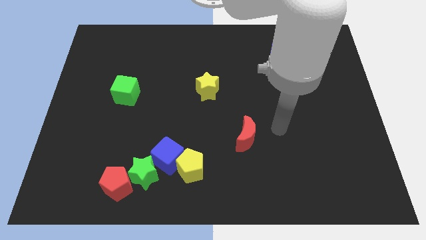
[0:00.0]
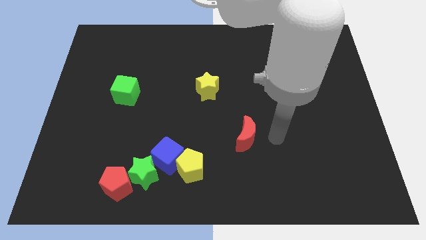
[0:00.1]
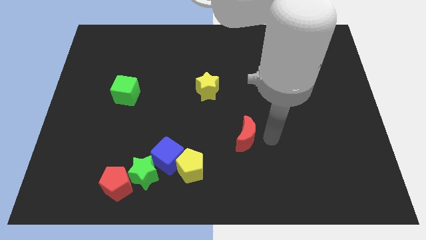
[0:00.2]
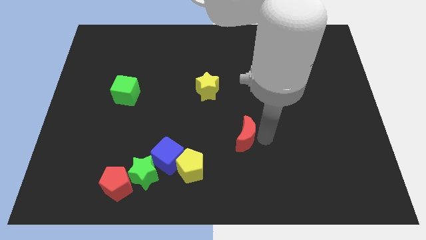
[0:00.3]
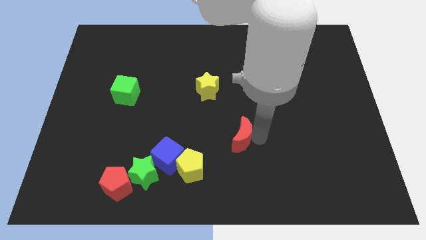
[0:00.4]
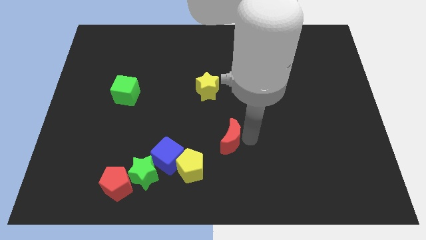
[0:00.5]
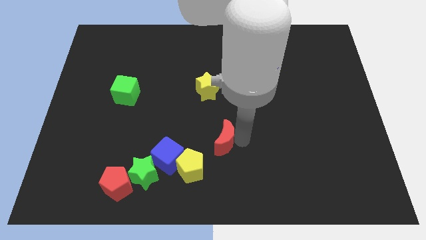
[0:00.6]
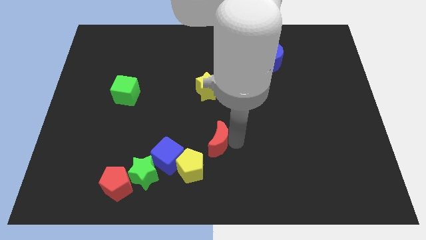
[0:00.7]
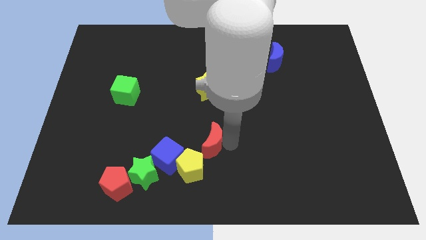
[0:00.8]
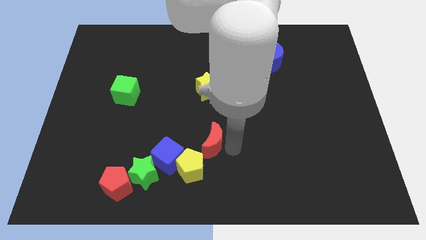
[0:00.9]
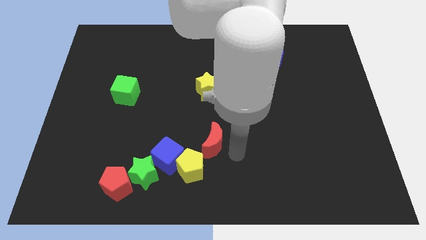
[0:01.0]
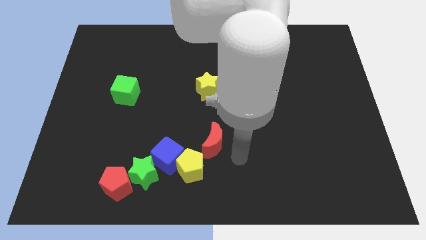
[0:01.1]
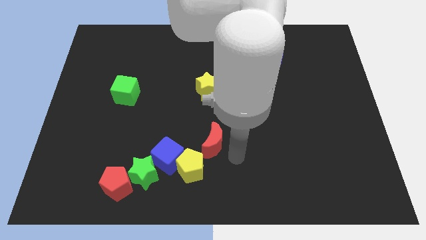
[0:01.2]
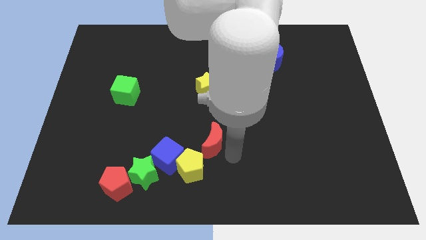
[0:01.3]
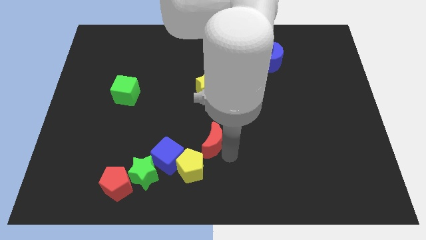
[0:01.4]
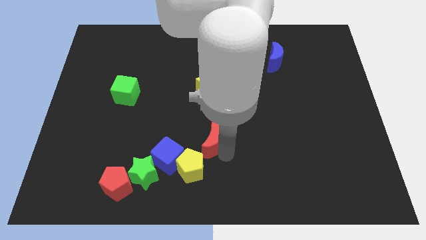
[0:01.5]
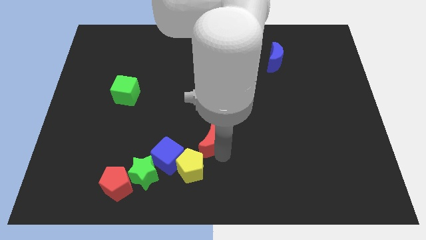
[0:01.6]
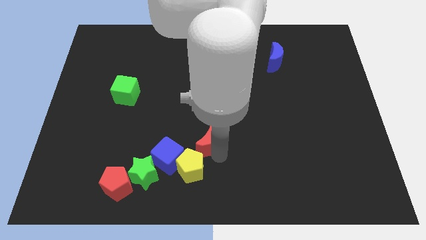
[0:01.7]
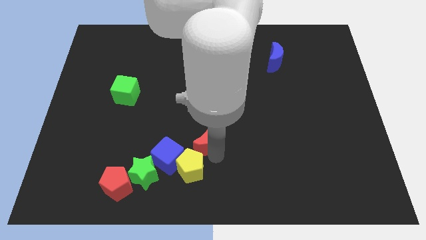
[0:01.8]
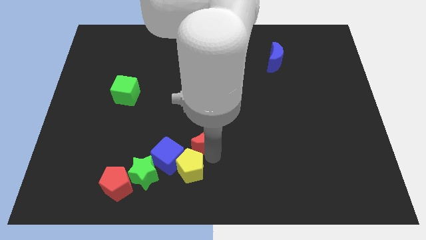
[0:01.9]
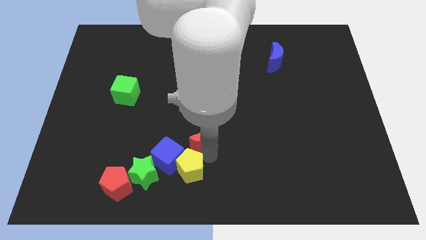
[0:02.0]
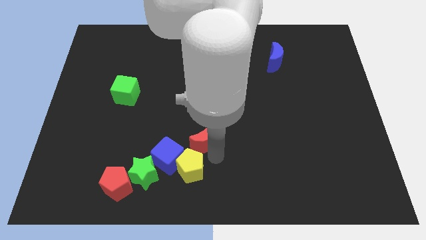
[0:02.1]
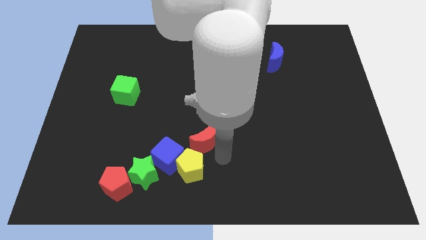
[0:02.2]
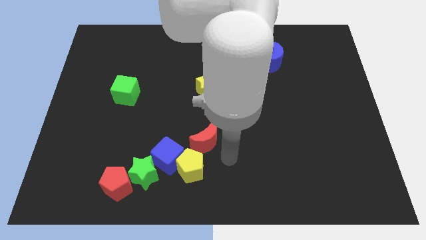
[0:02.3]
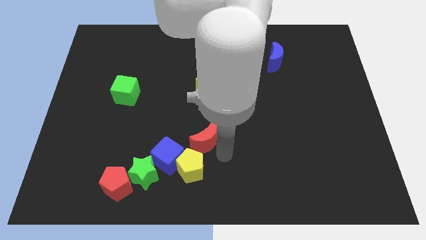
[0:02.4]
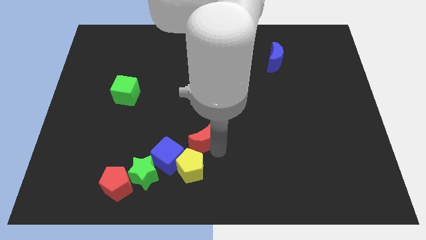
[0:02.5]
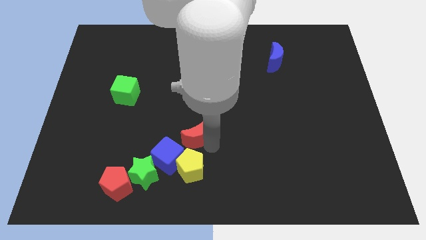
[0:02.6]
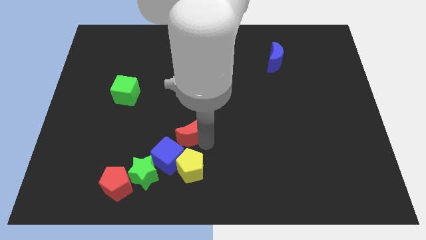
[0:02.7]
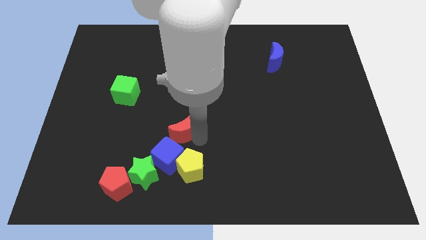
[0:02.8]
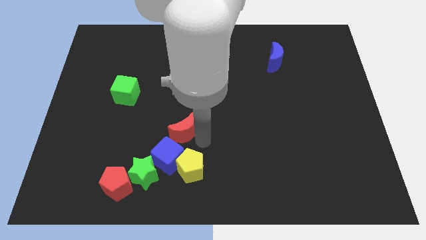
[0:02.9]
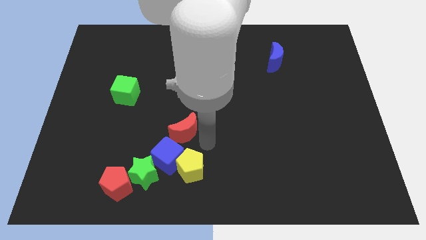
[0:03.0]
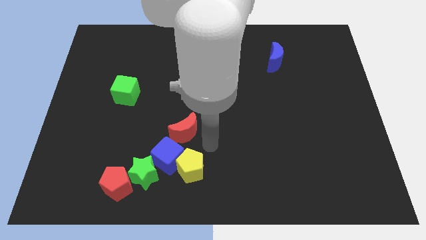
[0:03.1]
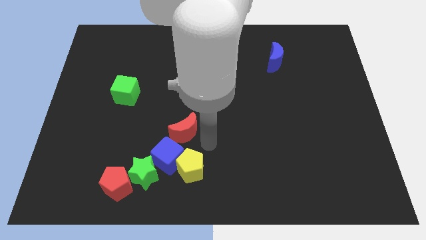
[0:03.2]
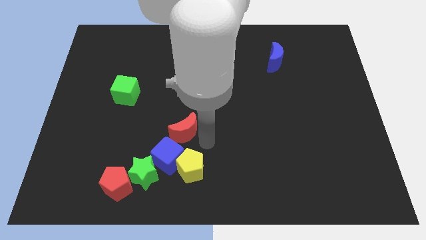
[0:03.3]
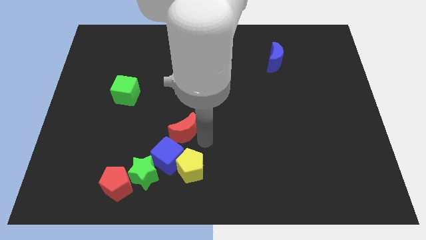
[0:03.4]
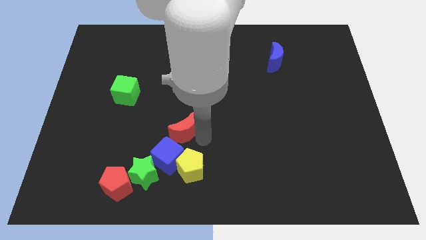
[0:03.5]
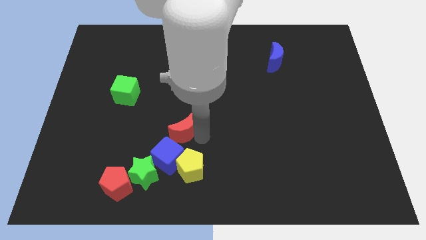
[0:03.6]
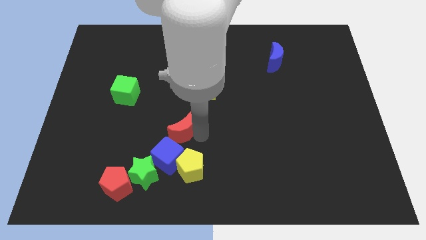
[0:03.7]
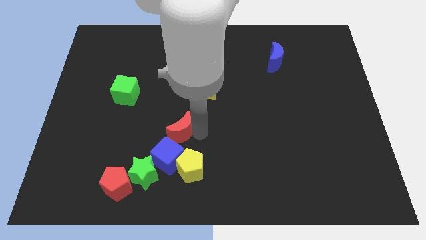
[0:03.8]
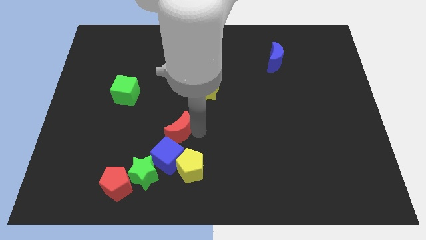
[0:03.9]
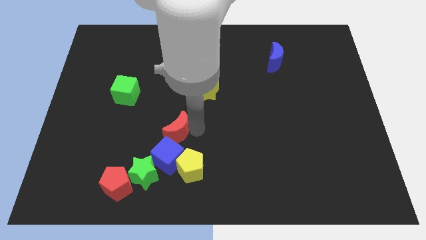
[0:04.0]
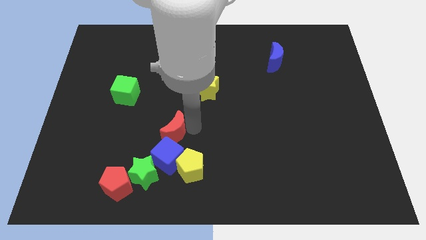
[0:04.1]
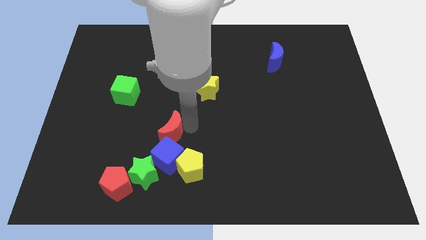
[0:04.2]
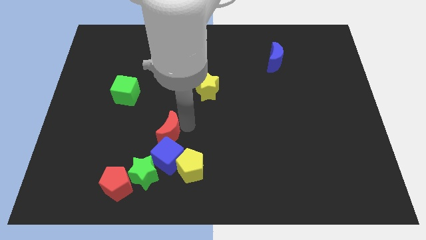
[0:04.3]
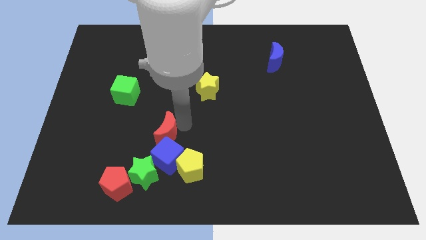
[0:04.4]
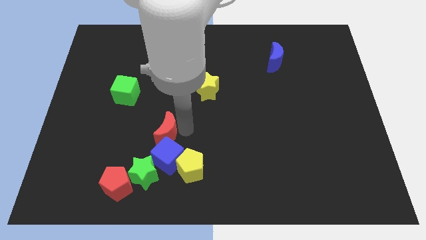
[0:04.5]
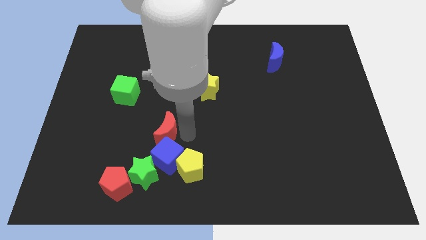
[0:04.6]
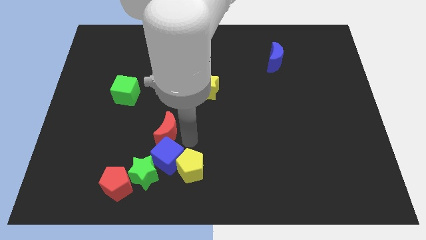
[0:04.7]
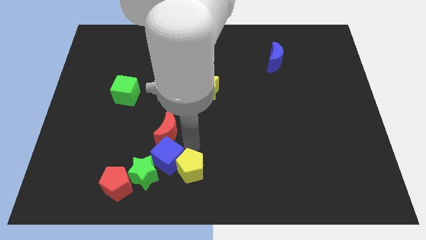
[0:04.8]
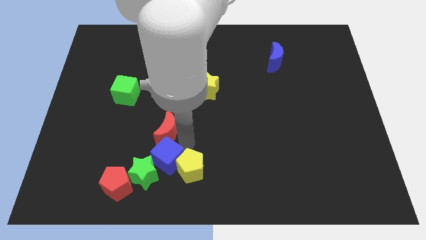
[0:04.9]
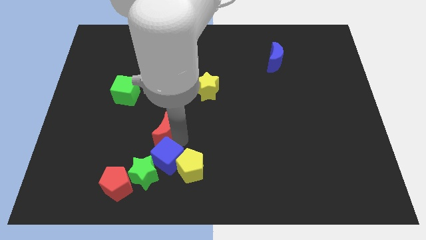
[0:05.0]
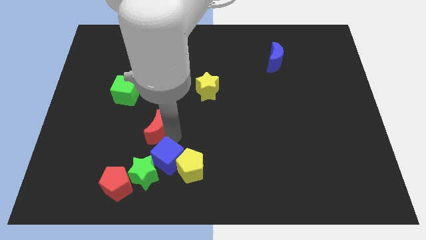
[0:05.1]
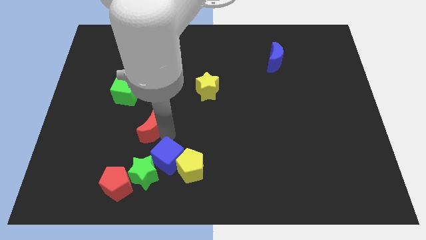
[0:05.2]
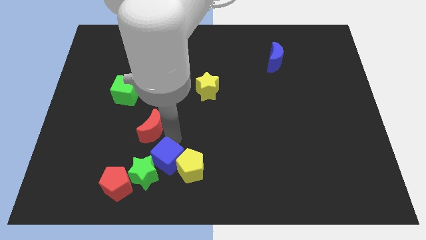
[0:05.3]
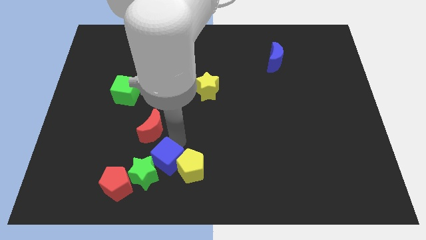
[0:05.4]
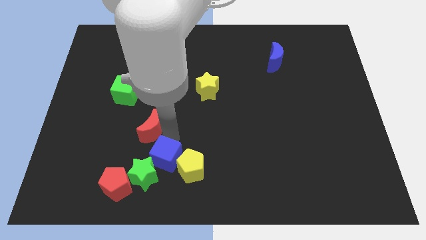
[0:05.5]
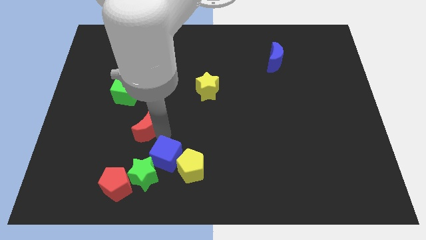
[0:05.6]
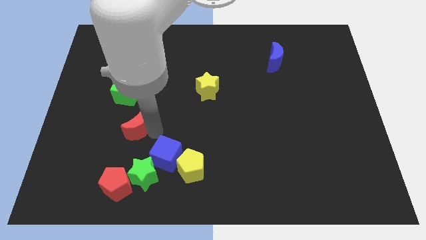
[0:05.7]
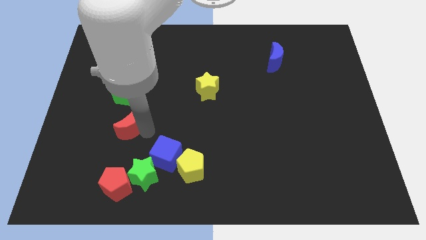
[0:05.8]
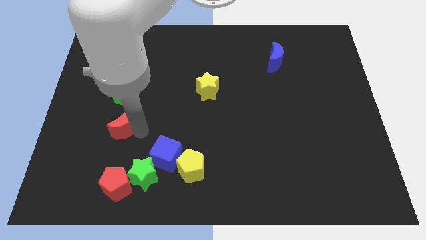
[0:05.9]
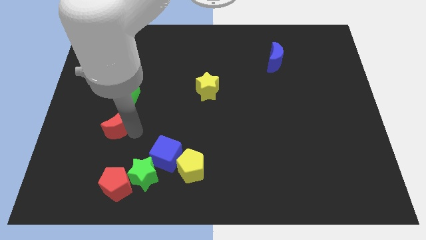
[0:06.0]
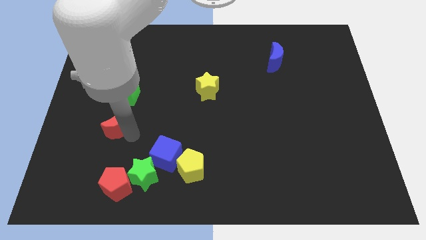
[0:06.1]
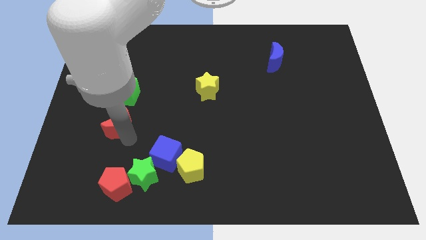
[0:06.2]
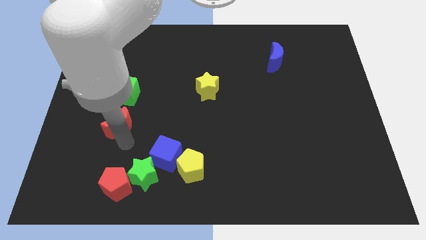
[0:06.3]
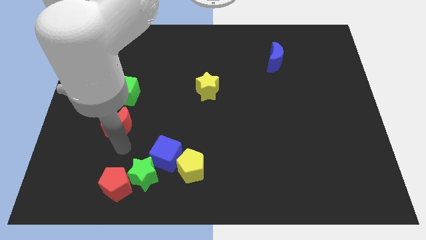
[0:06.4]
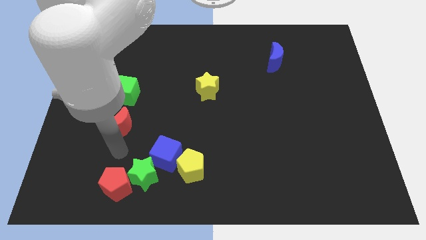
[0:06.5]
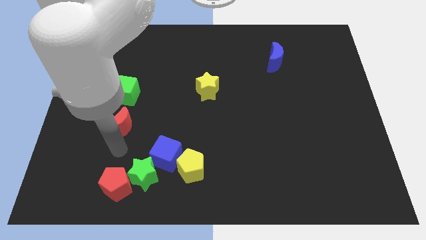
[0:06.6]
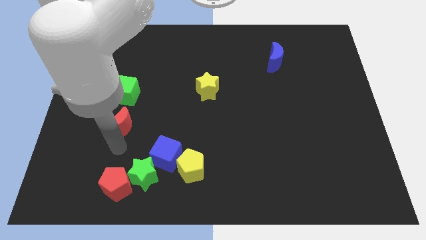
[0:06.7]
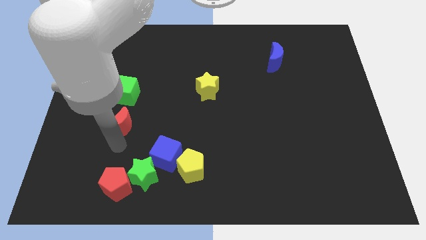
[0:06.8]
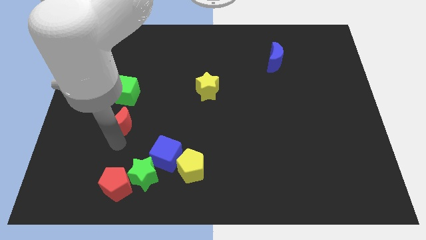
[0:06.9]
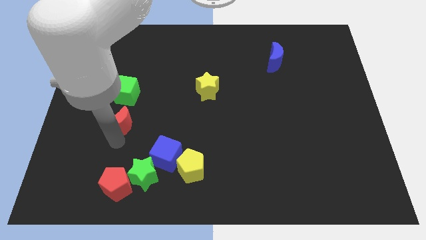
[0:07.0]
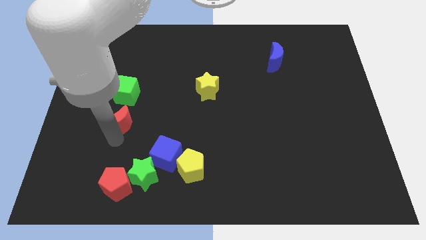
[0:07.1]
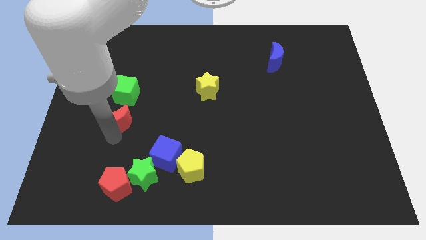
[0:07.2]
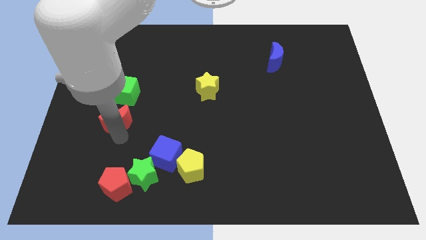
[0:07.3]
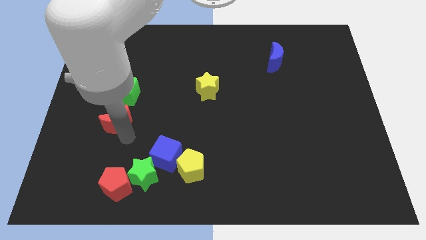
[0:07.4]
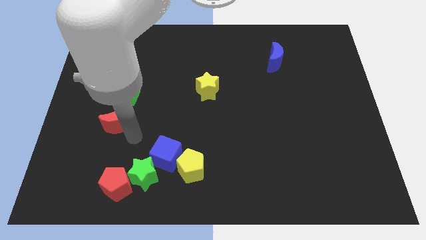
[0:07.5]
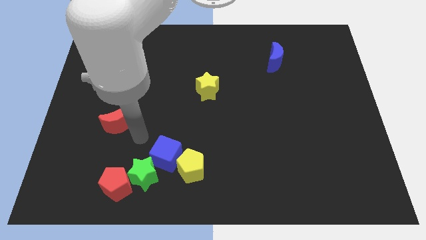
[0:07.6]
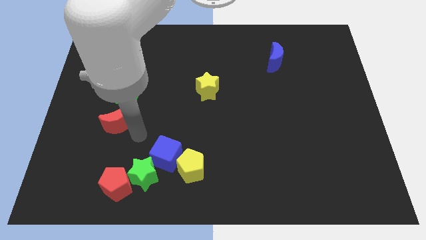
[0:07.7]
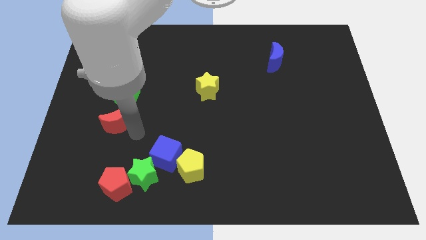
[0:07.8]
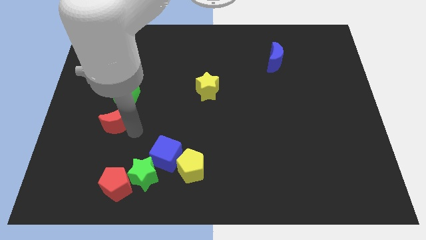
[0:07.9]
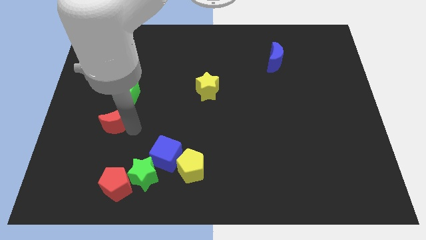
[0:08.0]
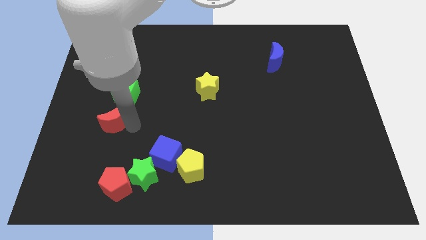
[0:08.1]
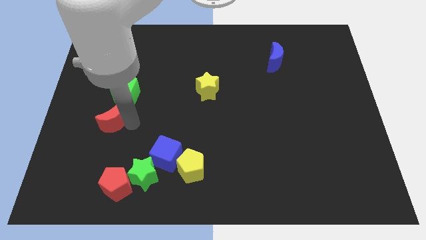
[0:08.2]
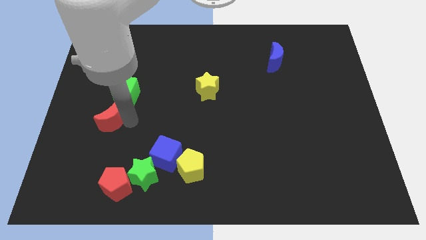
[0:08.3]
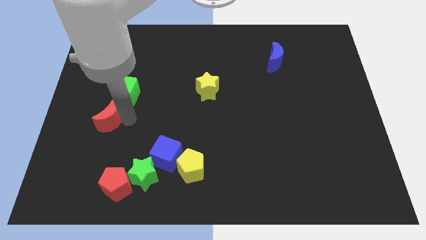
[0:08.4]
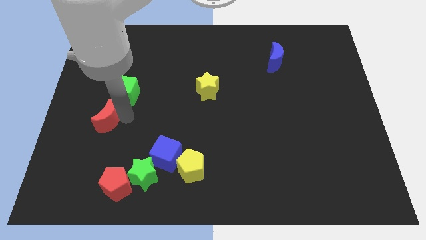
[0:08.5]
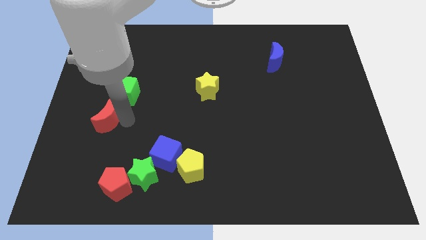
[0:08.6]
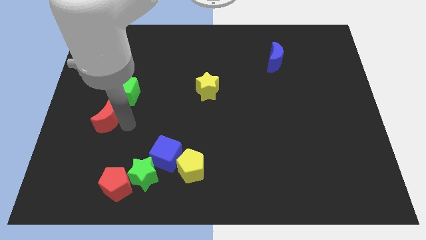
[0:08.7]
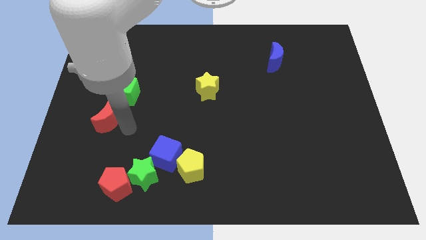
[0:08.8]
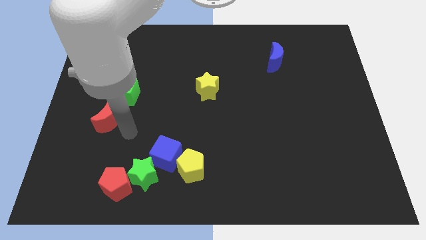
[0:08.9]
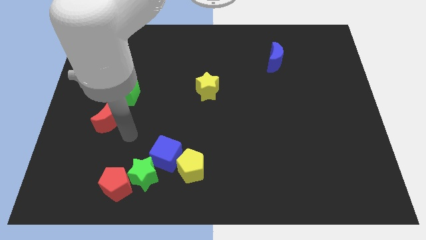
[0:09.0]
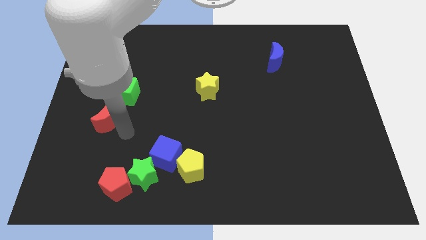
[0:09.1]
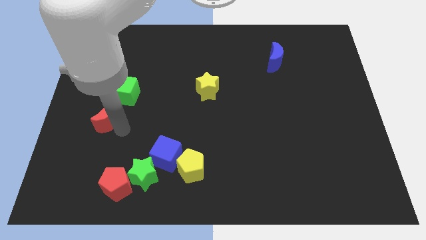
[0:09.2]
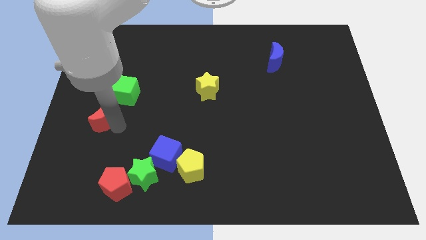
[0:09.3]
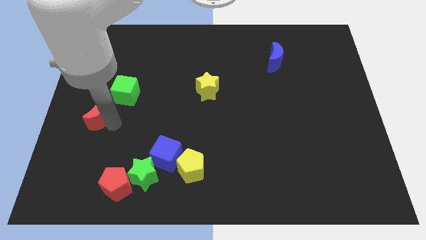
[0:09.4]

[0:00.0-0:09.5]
put the red moon to the left side of the board
